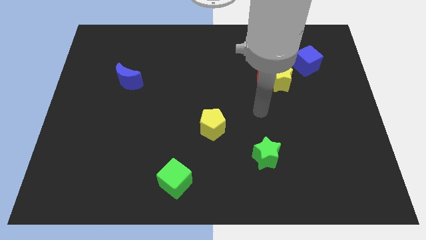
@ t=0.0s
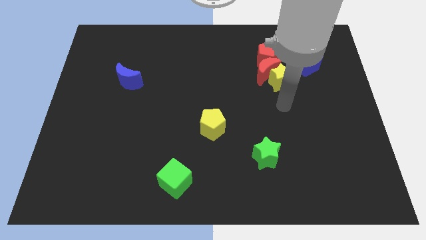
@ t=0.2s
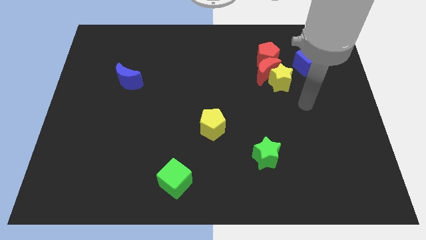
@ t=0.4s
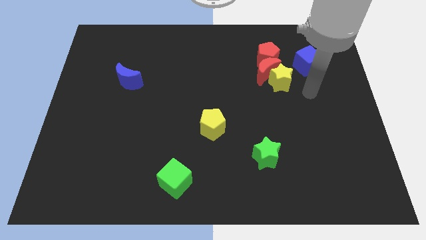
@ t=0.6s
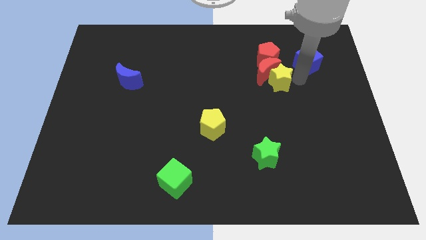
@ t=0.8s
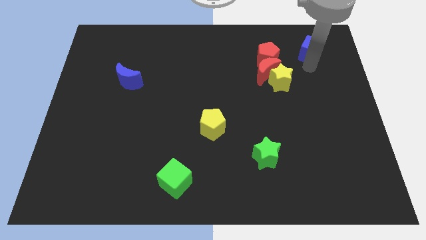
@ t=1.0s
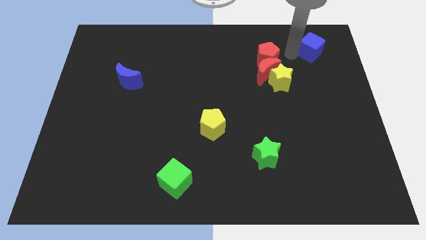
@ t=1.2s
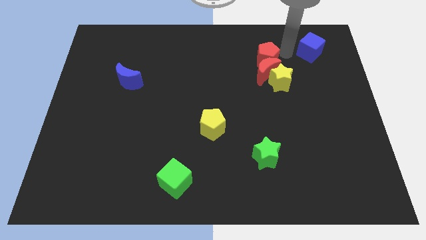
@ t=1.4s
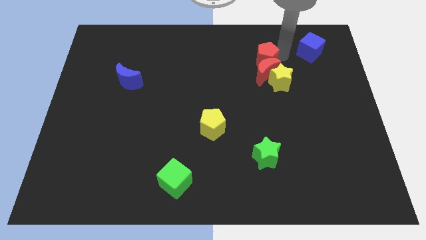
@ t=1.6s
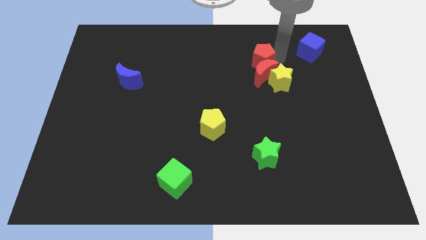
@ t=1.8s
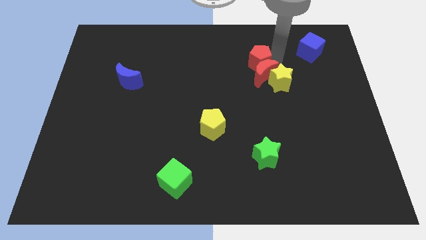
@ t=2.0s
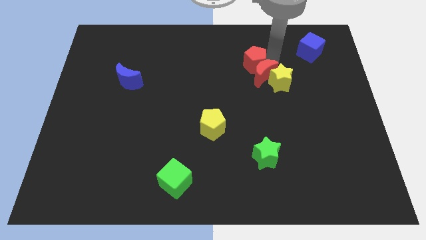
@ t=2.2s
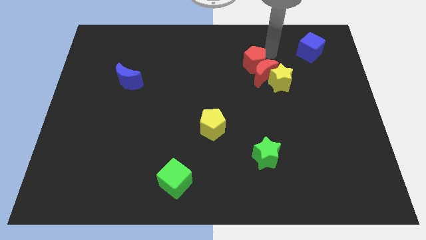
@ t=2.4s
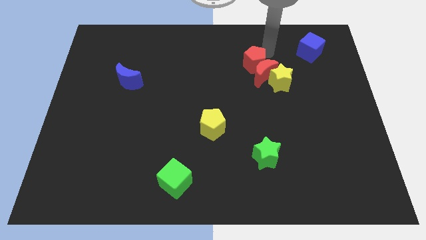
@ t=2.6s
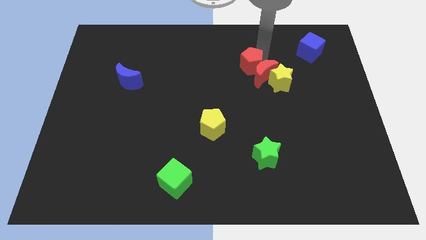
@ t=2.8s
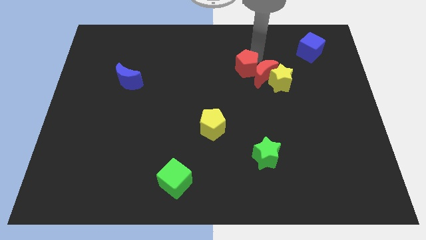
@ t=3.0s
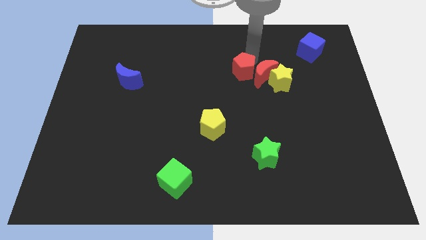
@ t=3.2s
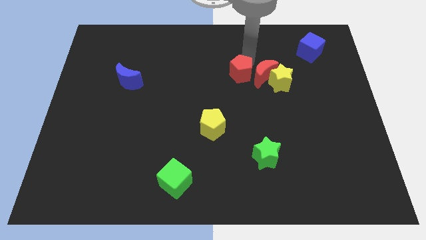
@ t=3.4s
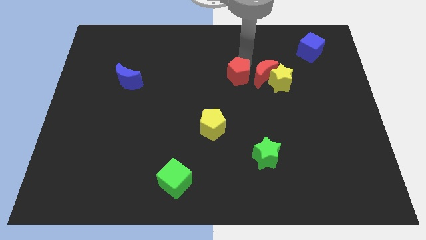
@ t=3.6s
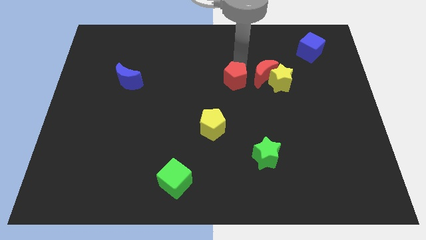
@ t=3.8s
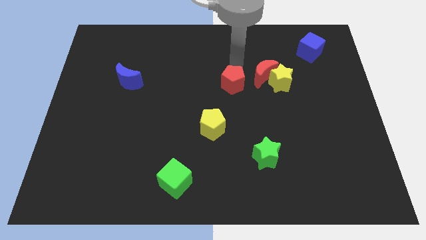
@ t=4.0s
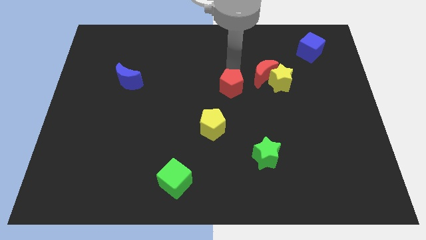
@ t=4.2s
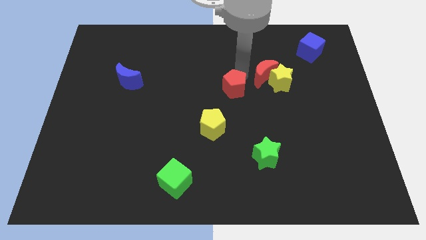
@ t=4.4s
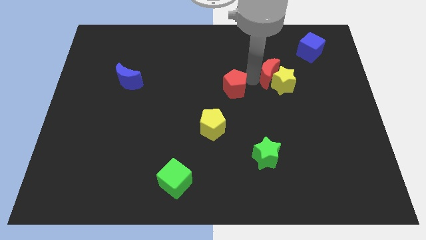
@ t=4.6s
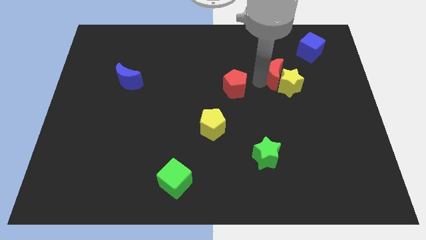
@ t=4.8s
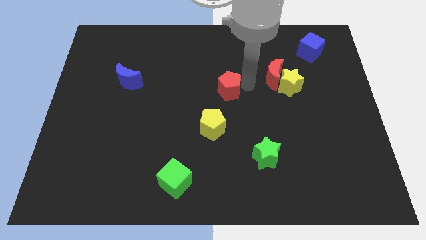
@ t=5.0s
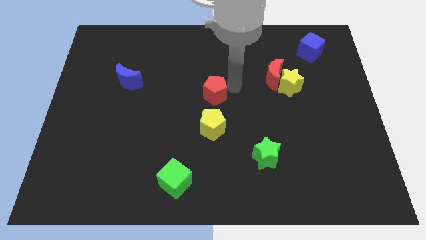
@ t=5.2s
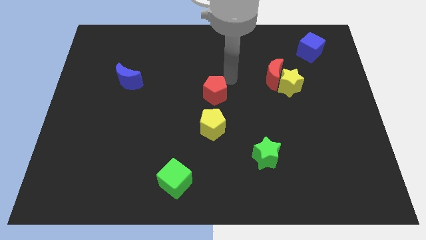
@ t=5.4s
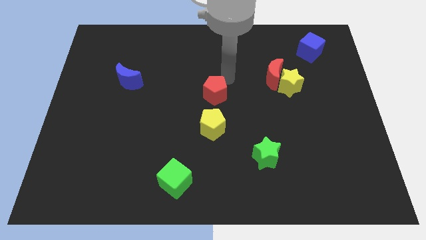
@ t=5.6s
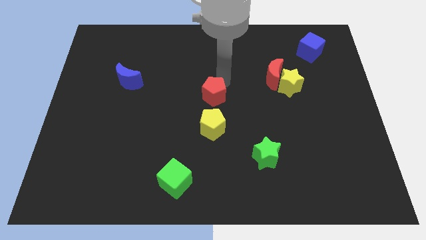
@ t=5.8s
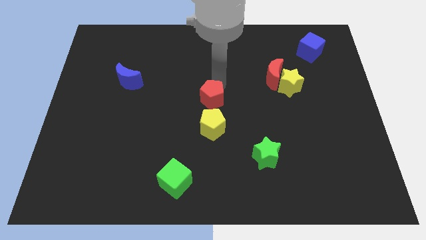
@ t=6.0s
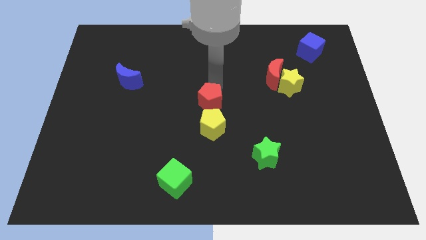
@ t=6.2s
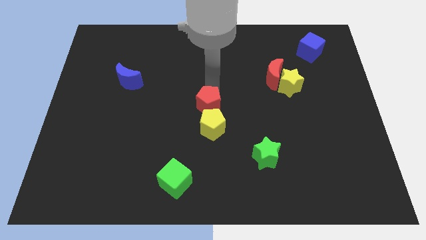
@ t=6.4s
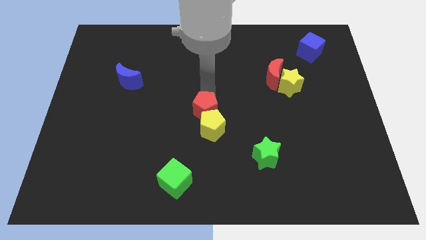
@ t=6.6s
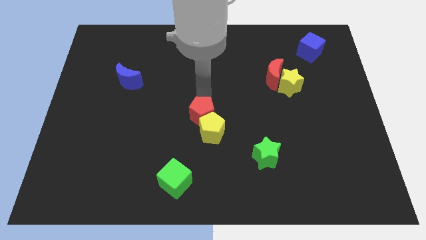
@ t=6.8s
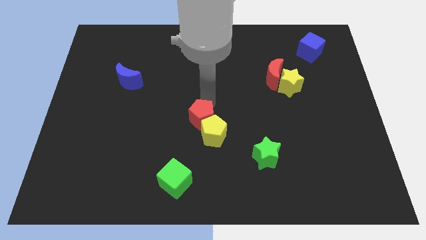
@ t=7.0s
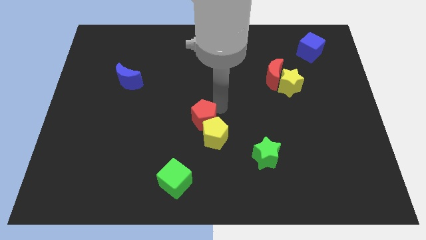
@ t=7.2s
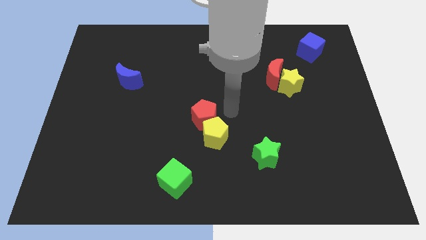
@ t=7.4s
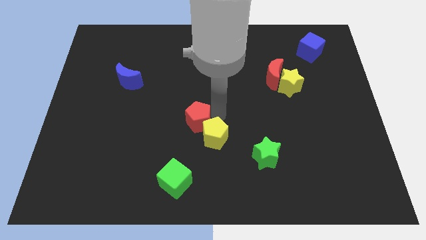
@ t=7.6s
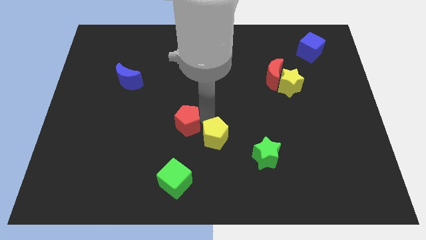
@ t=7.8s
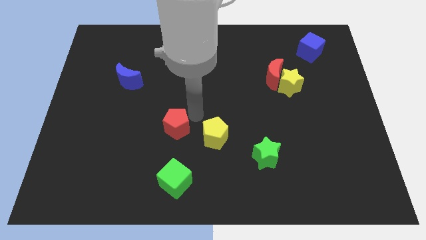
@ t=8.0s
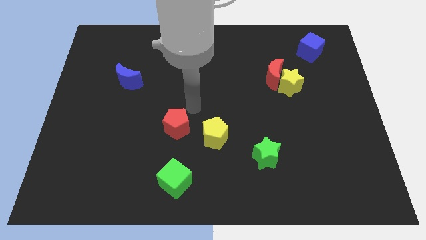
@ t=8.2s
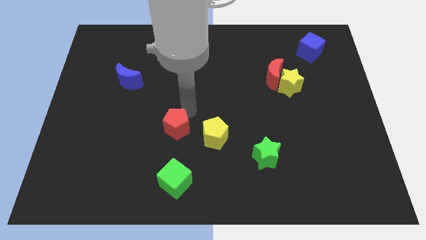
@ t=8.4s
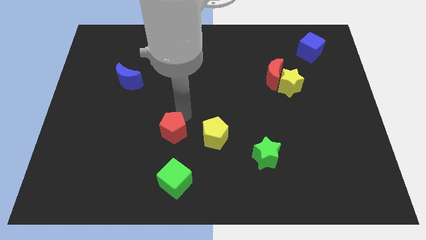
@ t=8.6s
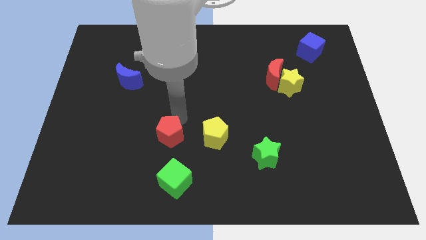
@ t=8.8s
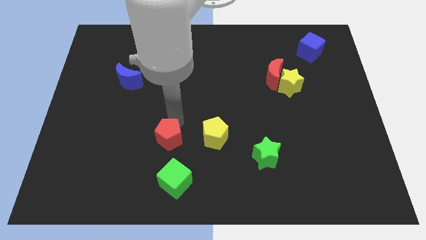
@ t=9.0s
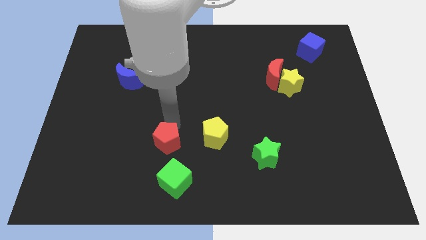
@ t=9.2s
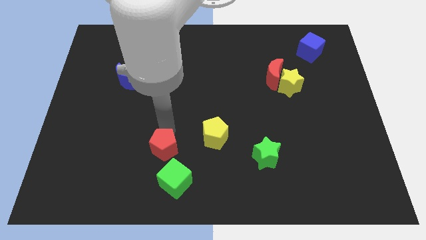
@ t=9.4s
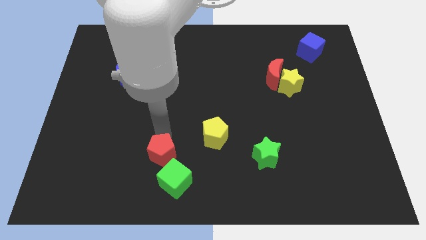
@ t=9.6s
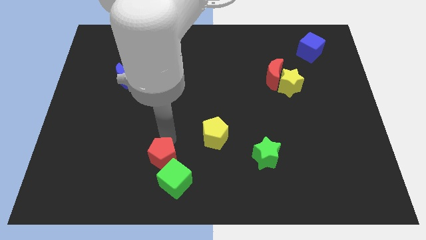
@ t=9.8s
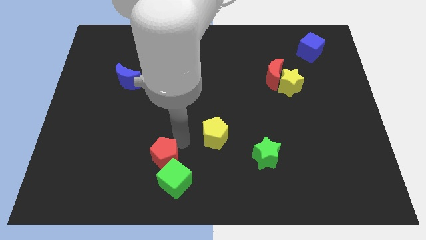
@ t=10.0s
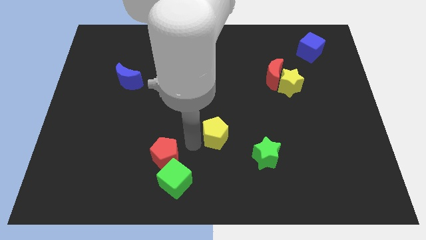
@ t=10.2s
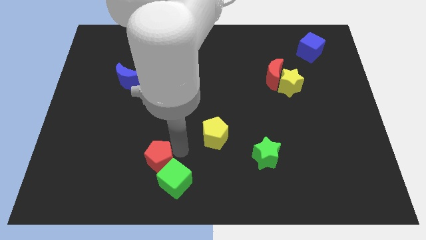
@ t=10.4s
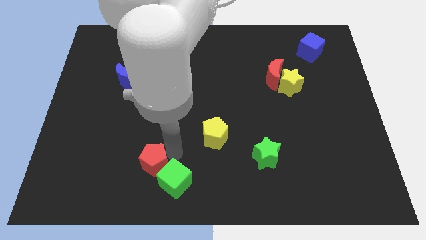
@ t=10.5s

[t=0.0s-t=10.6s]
push the red pentagon to the left side of the green cube

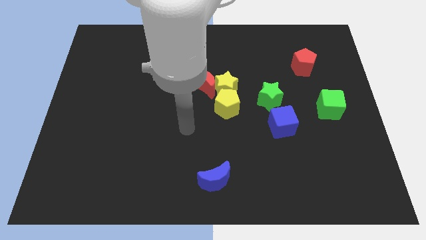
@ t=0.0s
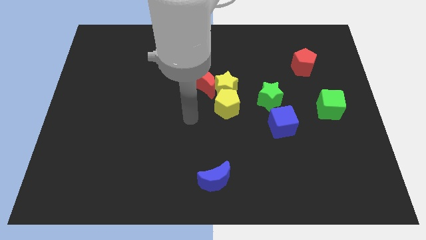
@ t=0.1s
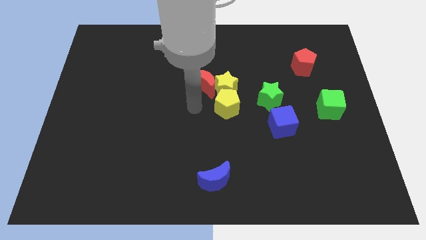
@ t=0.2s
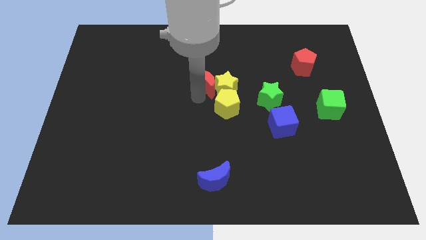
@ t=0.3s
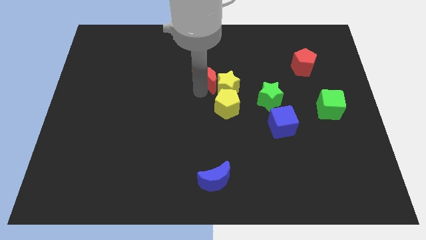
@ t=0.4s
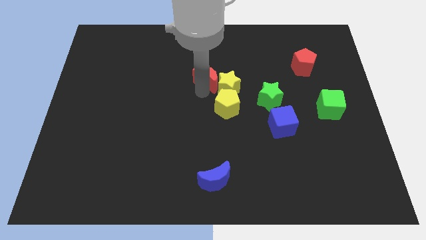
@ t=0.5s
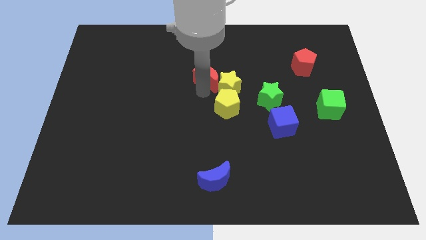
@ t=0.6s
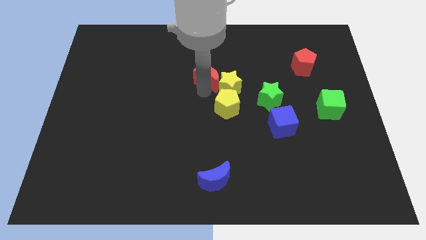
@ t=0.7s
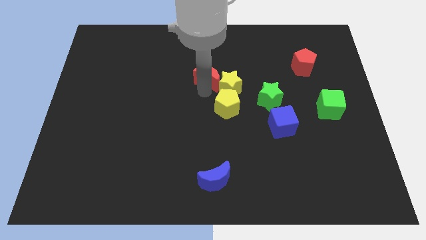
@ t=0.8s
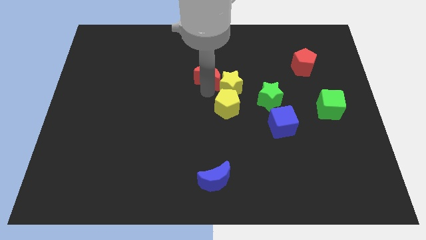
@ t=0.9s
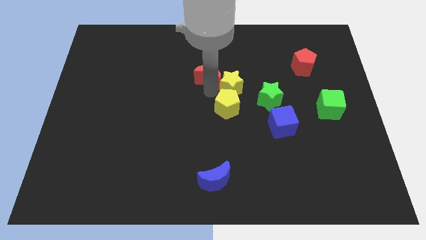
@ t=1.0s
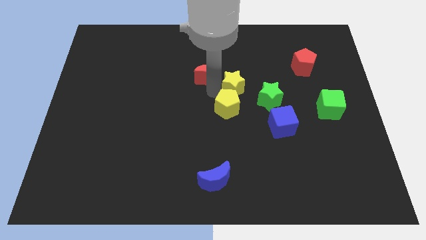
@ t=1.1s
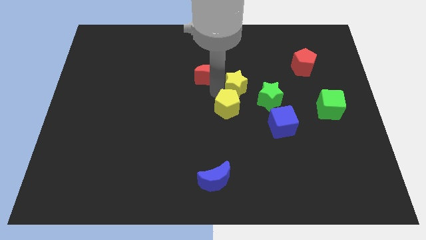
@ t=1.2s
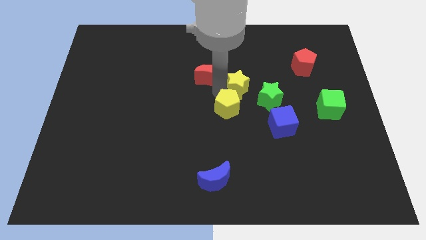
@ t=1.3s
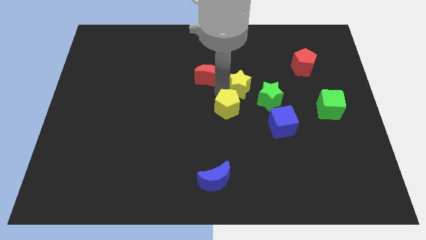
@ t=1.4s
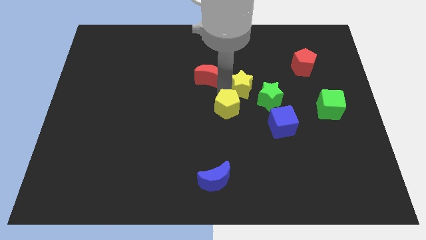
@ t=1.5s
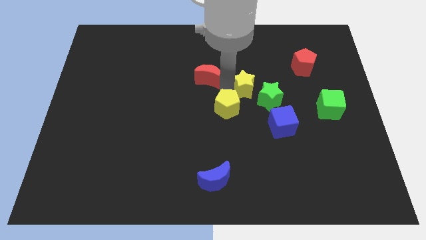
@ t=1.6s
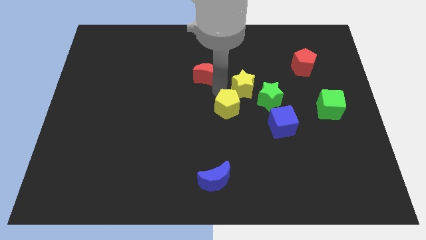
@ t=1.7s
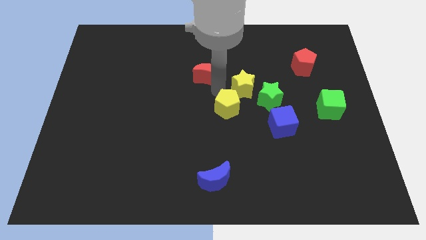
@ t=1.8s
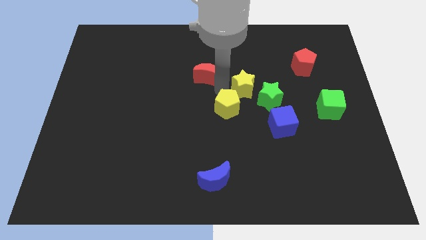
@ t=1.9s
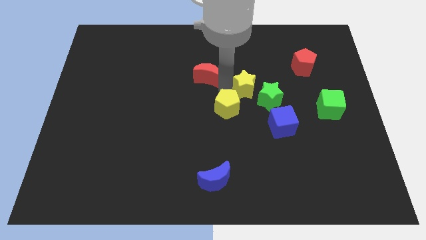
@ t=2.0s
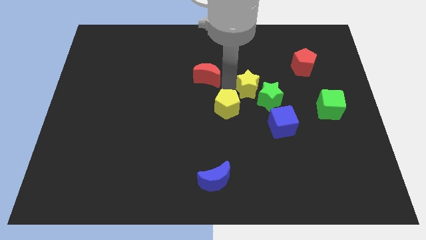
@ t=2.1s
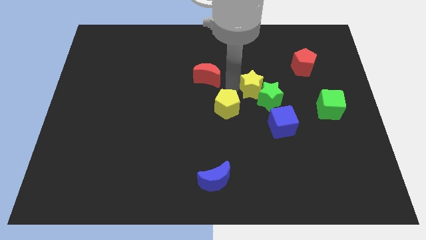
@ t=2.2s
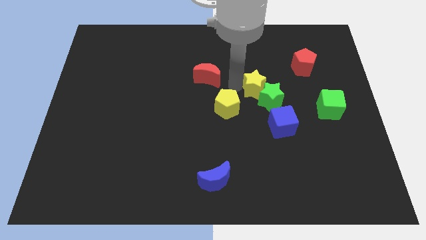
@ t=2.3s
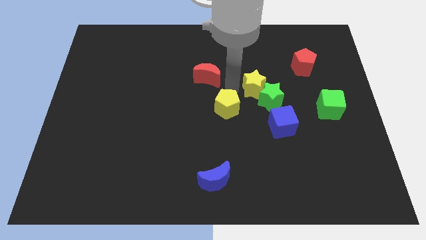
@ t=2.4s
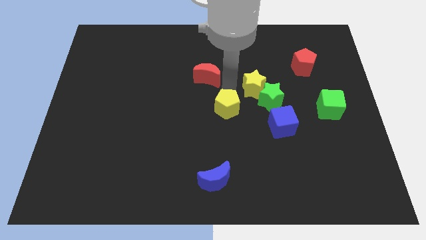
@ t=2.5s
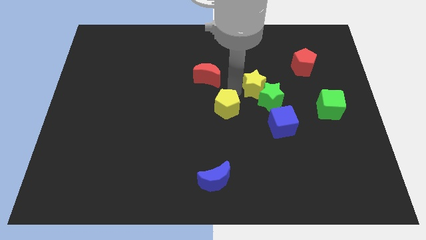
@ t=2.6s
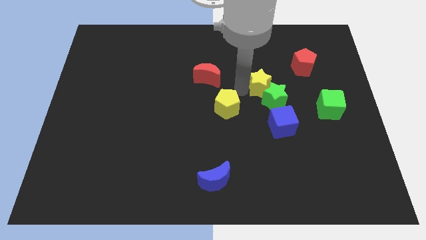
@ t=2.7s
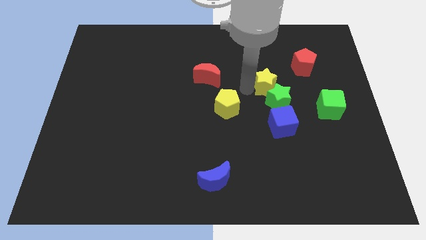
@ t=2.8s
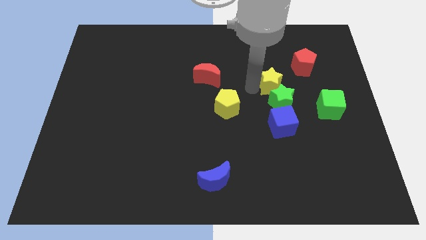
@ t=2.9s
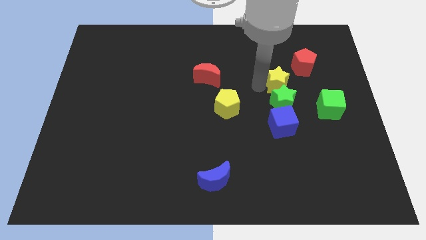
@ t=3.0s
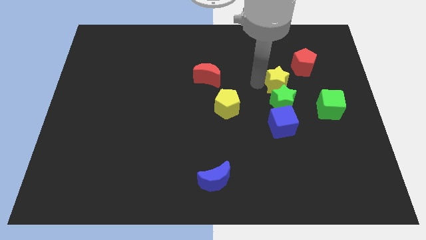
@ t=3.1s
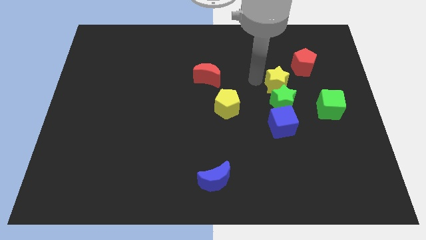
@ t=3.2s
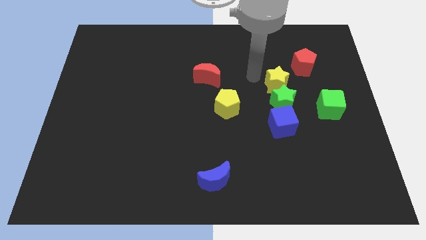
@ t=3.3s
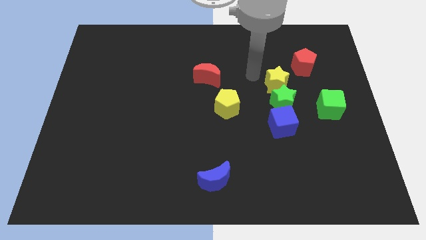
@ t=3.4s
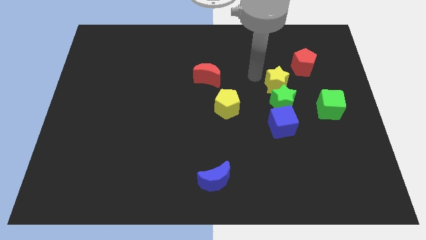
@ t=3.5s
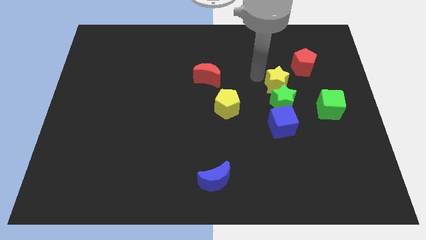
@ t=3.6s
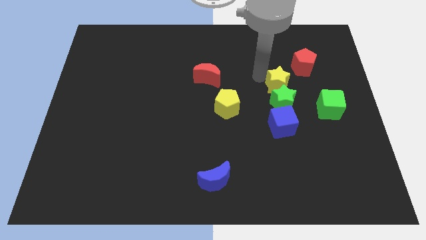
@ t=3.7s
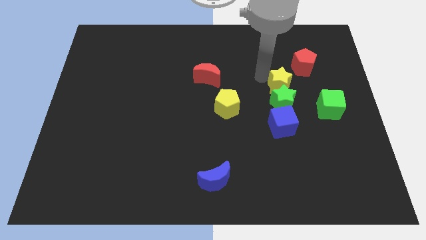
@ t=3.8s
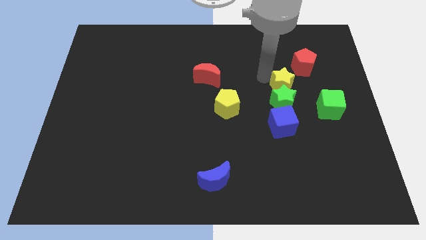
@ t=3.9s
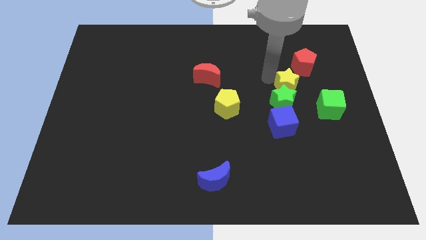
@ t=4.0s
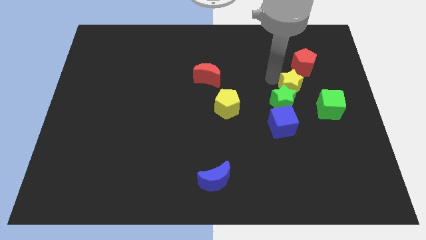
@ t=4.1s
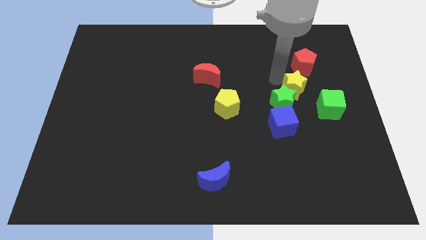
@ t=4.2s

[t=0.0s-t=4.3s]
move the yellow star to the right of the green star
